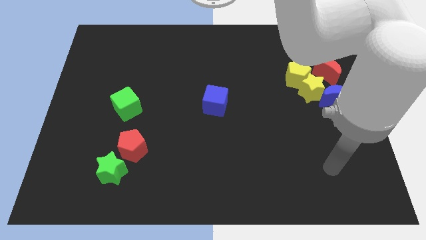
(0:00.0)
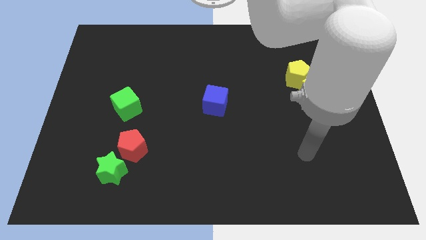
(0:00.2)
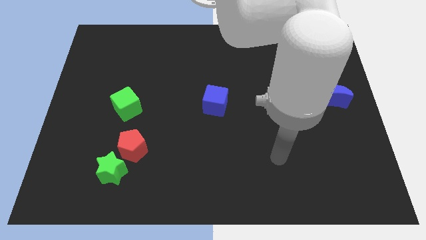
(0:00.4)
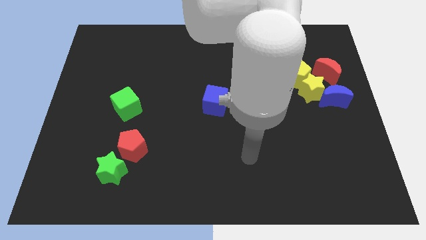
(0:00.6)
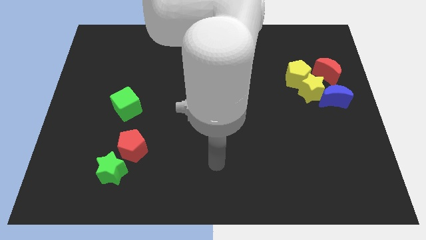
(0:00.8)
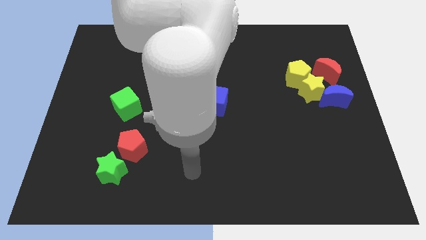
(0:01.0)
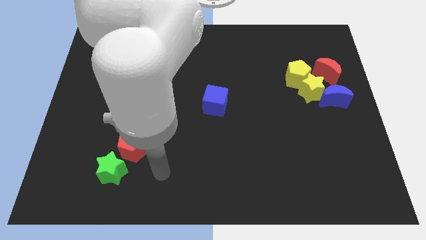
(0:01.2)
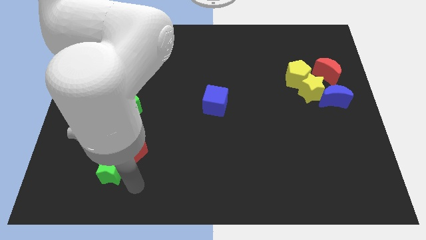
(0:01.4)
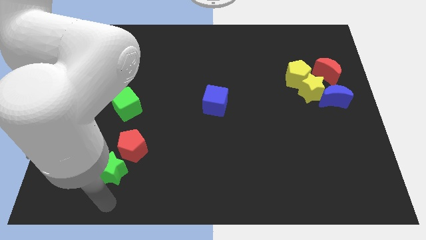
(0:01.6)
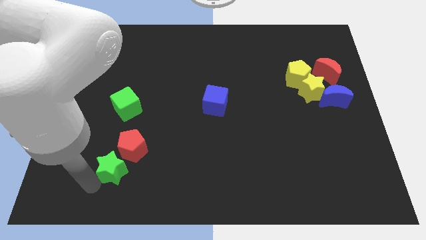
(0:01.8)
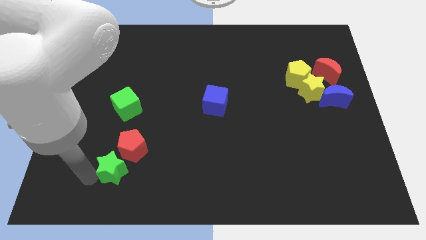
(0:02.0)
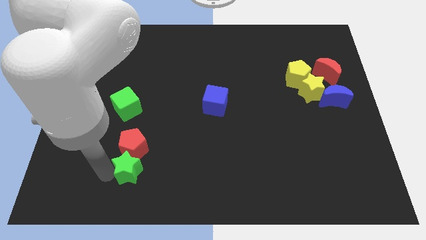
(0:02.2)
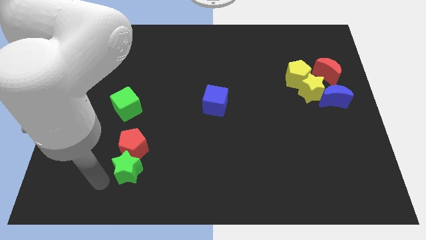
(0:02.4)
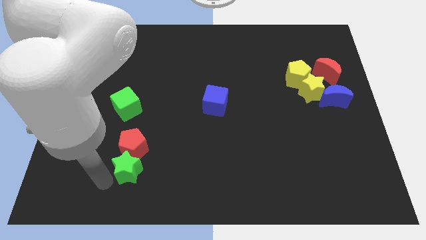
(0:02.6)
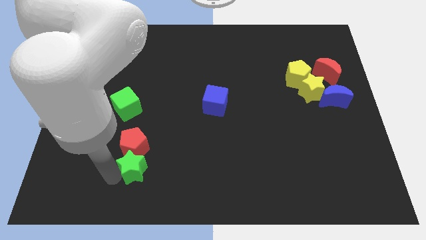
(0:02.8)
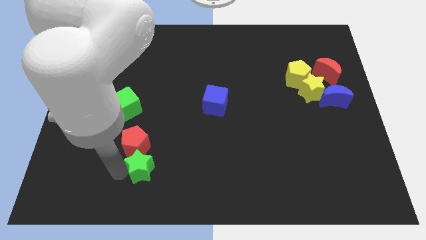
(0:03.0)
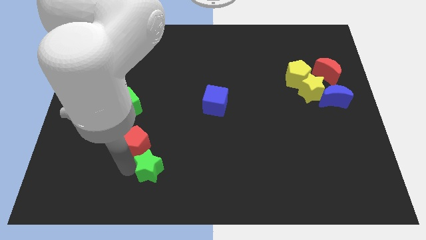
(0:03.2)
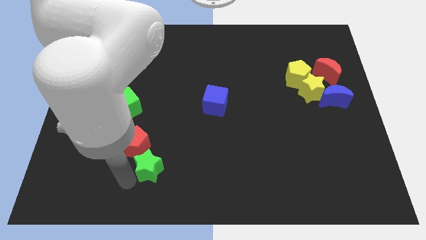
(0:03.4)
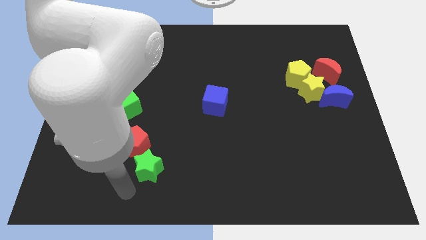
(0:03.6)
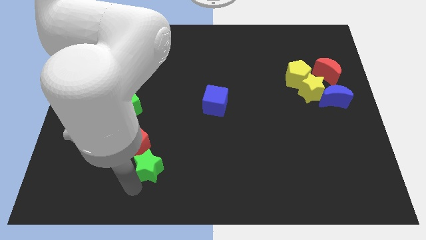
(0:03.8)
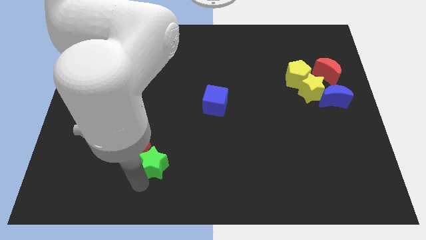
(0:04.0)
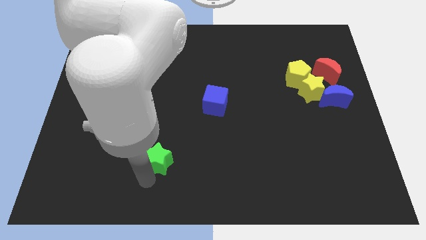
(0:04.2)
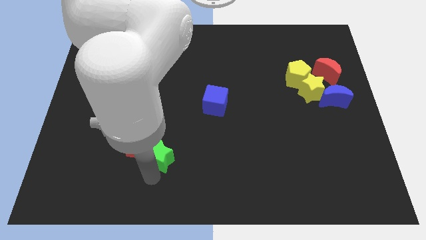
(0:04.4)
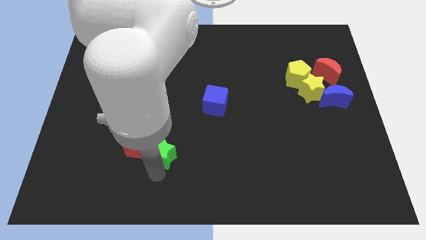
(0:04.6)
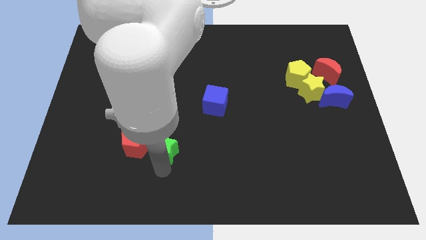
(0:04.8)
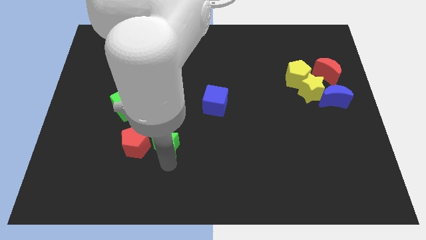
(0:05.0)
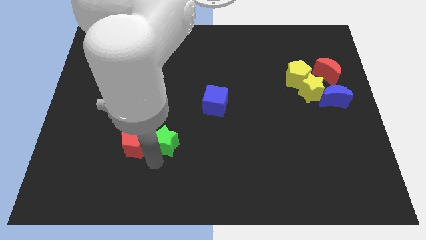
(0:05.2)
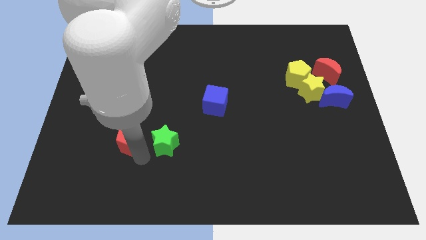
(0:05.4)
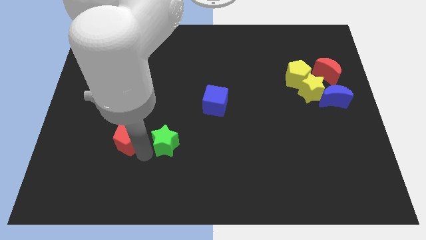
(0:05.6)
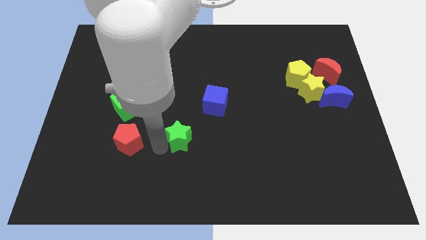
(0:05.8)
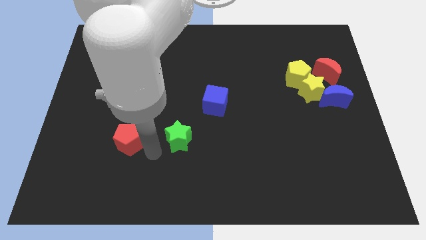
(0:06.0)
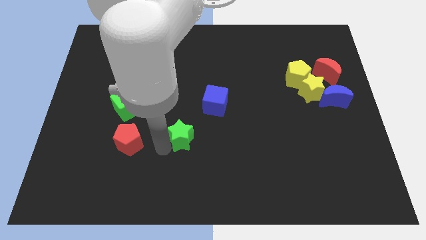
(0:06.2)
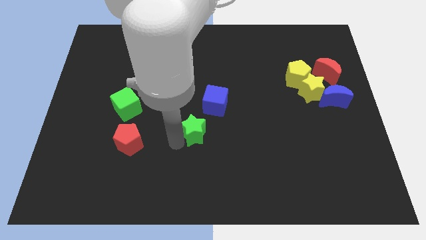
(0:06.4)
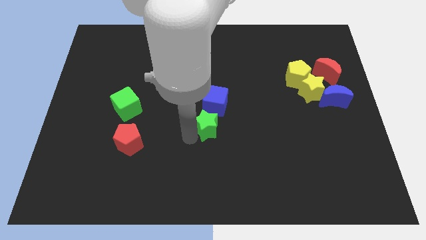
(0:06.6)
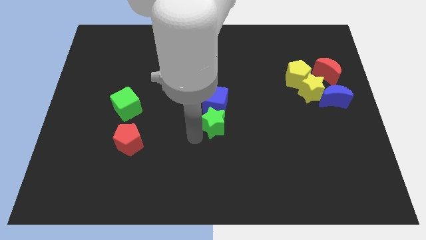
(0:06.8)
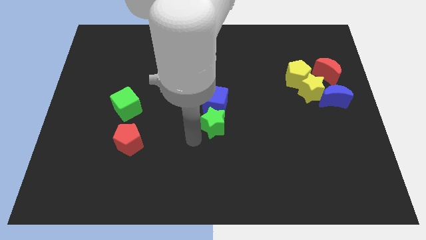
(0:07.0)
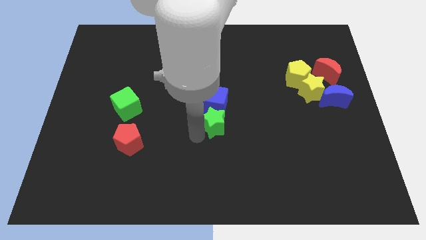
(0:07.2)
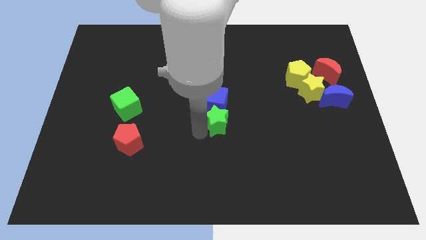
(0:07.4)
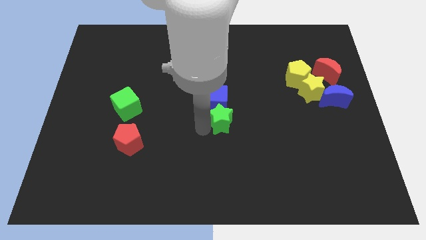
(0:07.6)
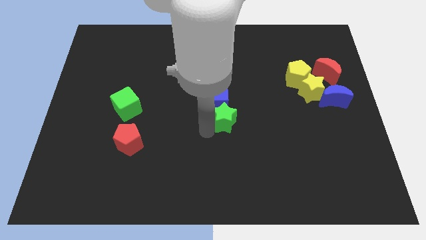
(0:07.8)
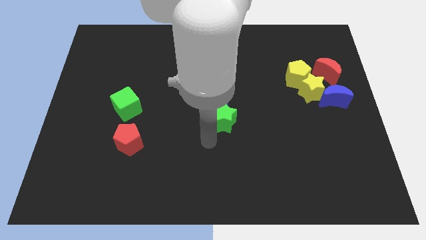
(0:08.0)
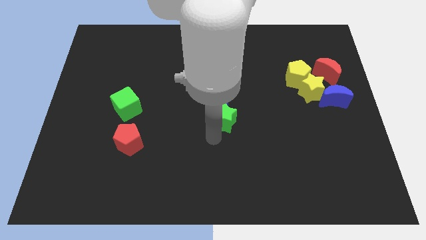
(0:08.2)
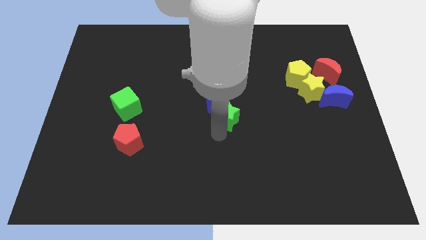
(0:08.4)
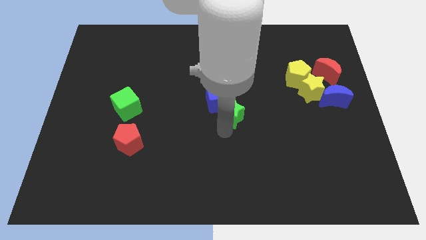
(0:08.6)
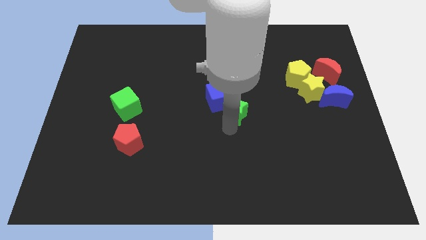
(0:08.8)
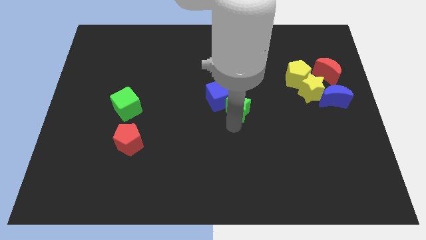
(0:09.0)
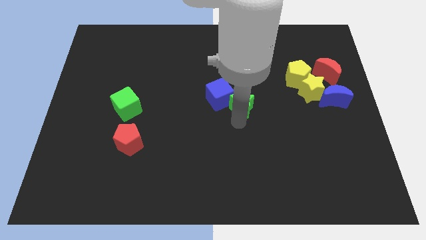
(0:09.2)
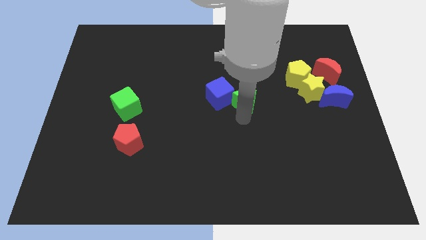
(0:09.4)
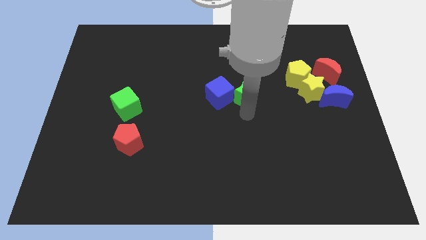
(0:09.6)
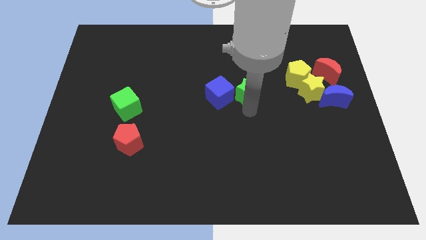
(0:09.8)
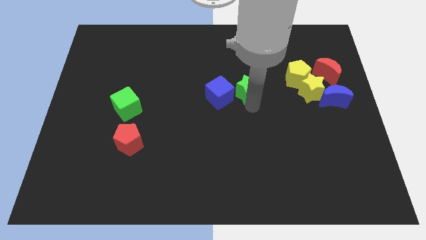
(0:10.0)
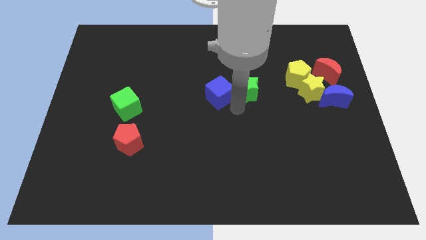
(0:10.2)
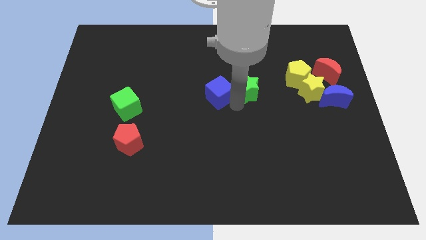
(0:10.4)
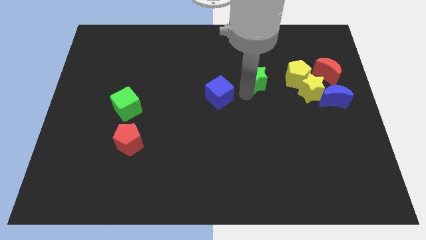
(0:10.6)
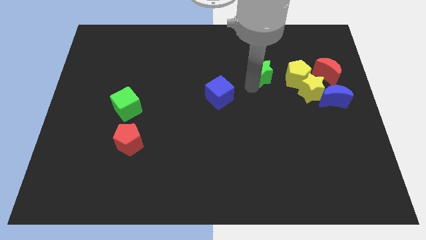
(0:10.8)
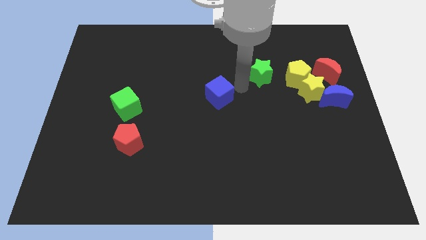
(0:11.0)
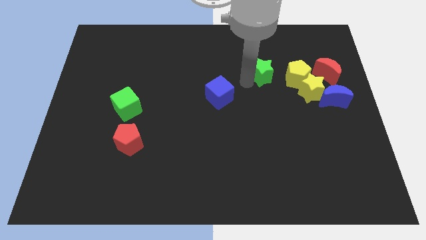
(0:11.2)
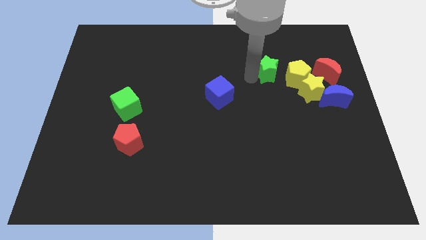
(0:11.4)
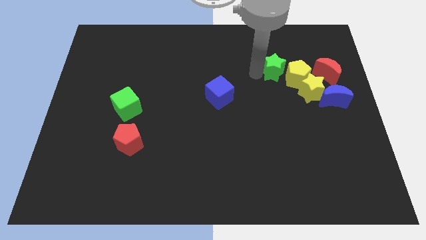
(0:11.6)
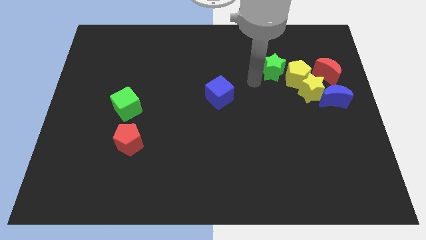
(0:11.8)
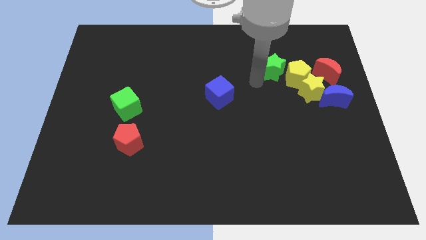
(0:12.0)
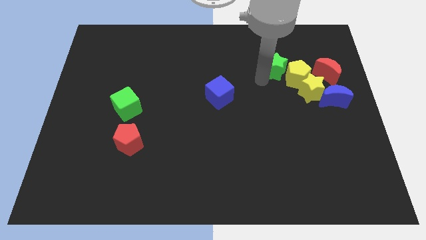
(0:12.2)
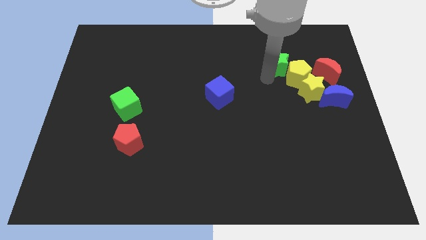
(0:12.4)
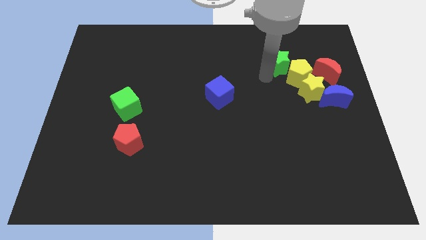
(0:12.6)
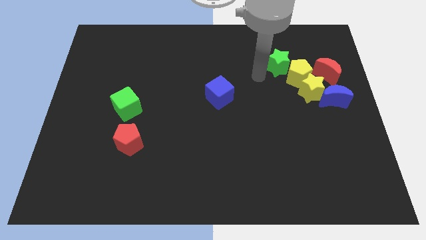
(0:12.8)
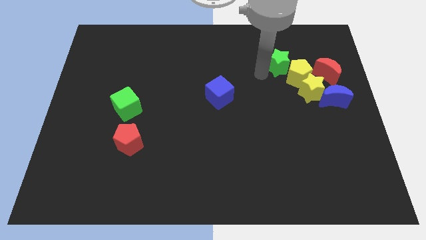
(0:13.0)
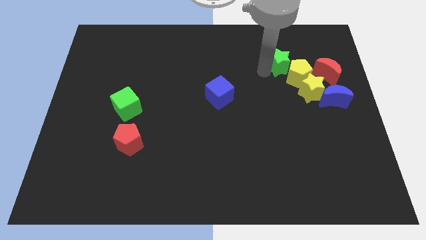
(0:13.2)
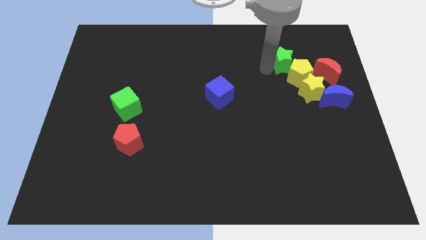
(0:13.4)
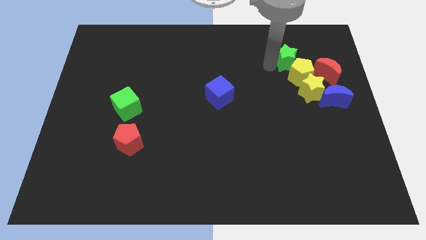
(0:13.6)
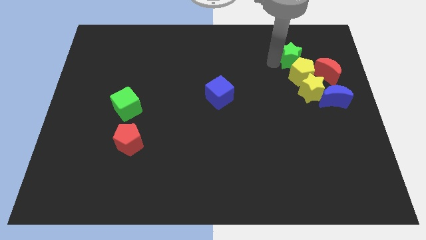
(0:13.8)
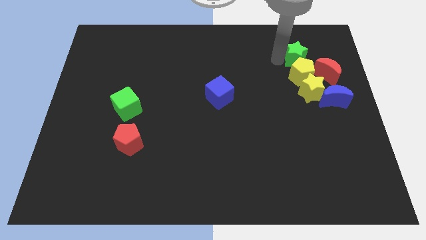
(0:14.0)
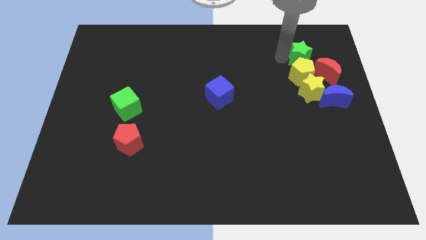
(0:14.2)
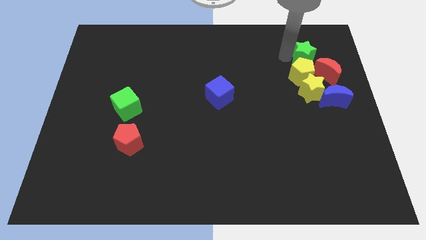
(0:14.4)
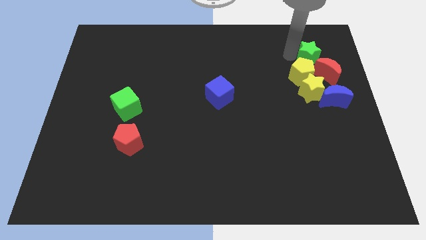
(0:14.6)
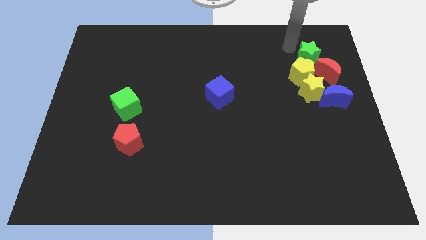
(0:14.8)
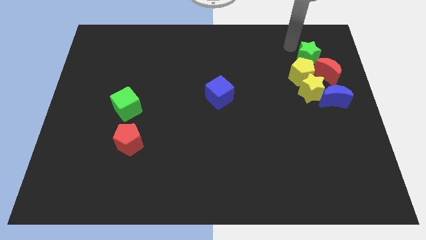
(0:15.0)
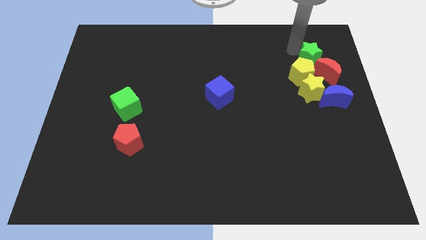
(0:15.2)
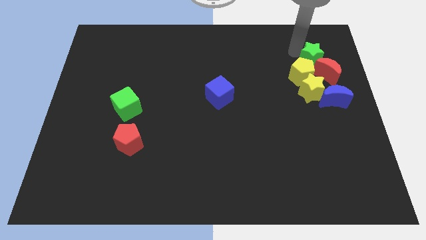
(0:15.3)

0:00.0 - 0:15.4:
push the green star towards the red moon
